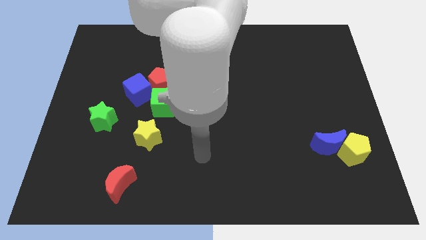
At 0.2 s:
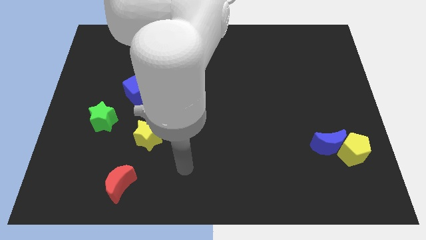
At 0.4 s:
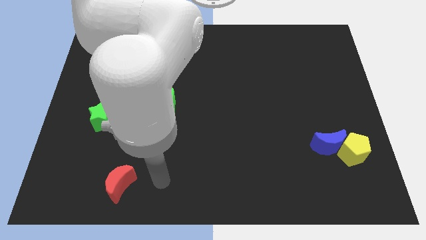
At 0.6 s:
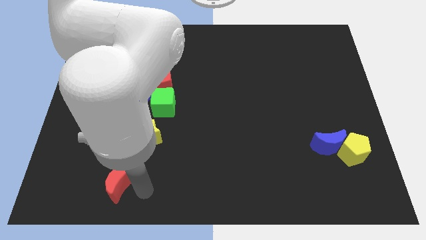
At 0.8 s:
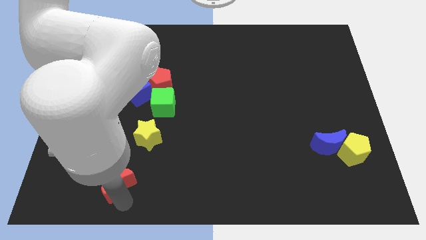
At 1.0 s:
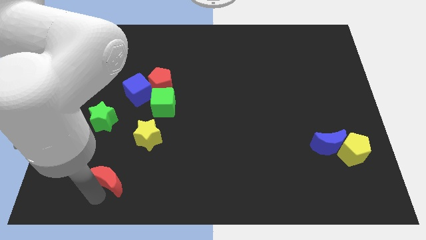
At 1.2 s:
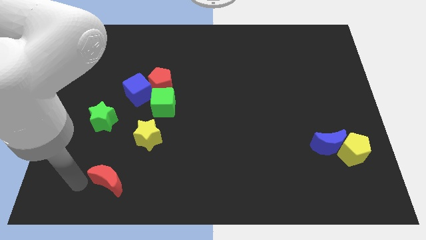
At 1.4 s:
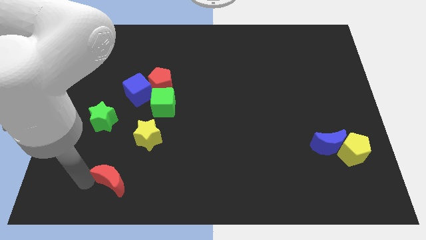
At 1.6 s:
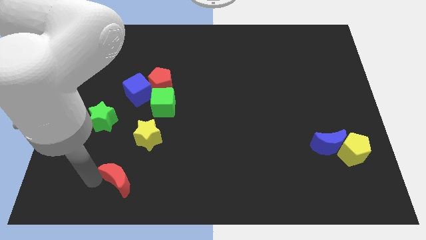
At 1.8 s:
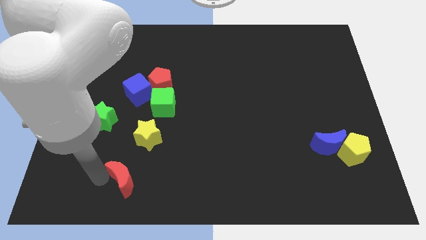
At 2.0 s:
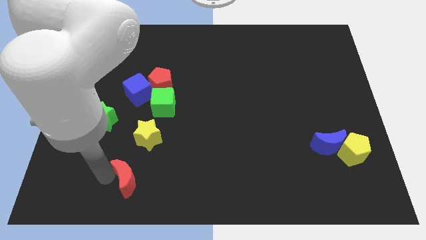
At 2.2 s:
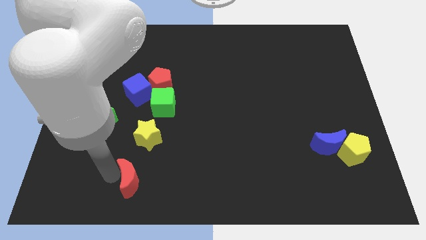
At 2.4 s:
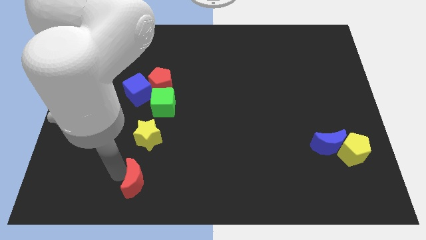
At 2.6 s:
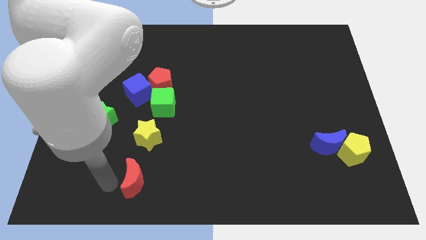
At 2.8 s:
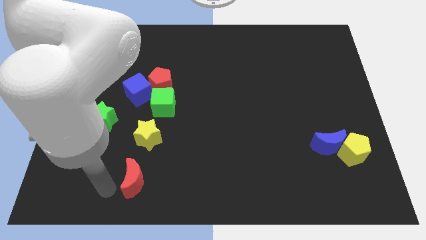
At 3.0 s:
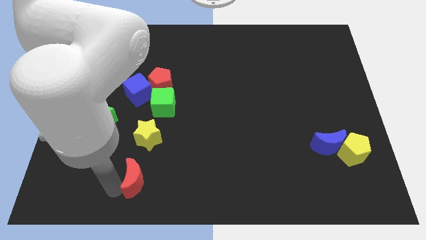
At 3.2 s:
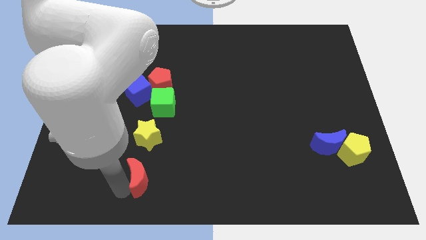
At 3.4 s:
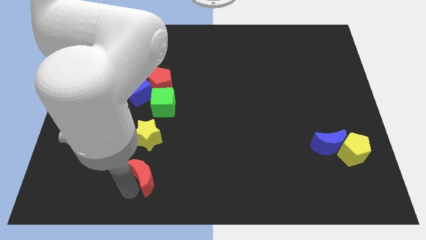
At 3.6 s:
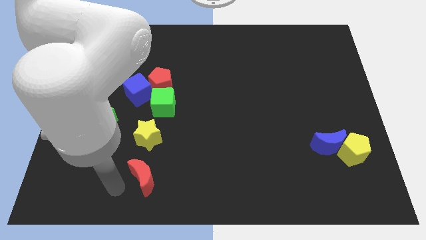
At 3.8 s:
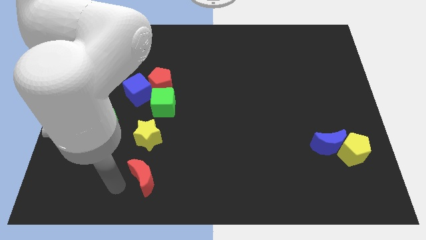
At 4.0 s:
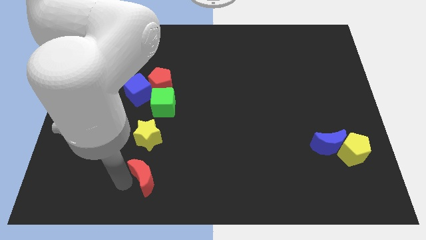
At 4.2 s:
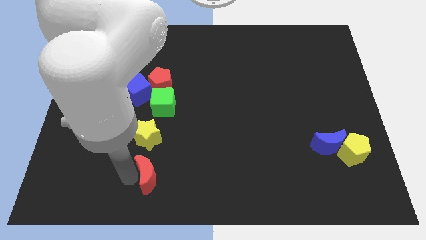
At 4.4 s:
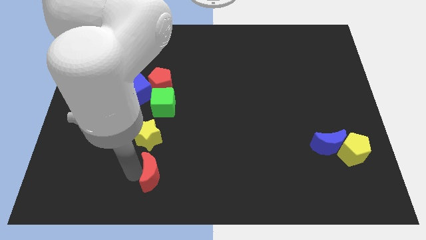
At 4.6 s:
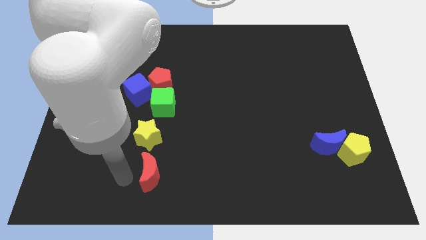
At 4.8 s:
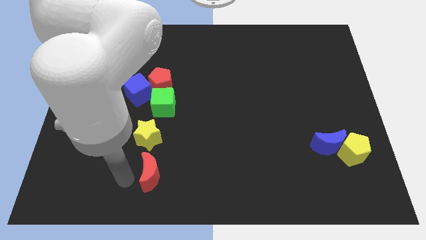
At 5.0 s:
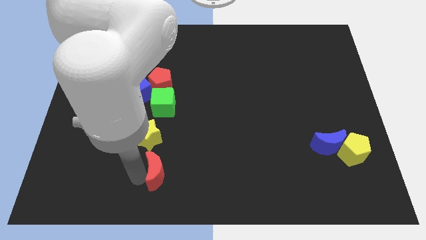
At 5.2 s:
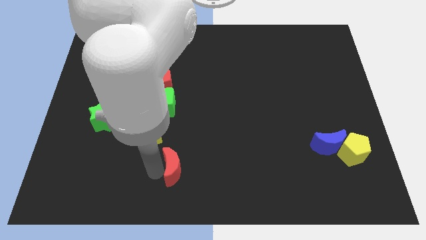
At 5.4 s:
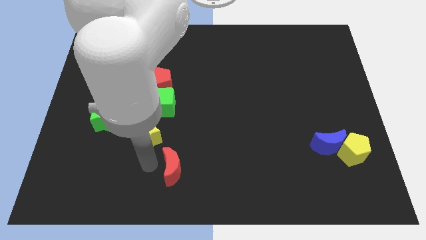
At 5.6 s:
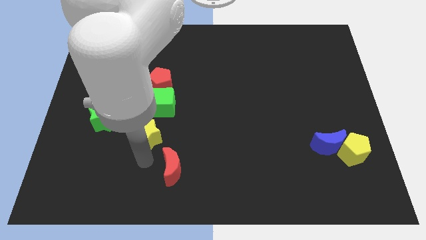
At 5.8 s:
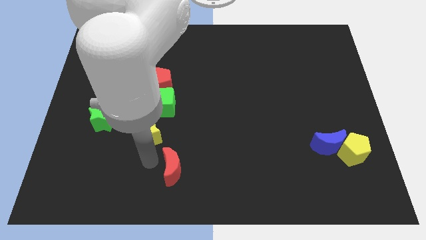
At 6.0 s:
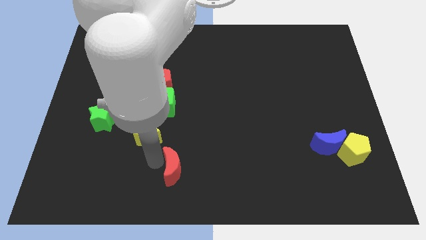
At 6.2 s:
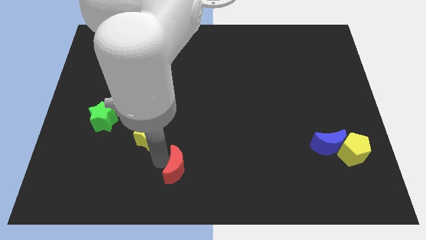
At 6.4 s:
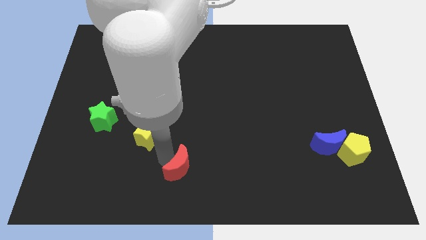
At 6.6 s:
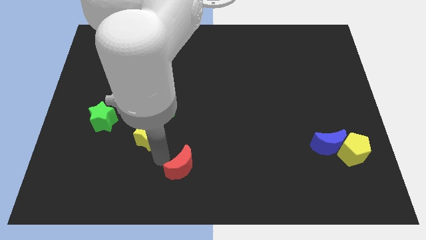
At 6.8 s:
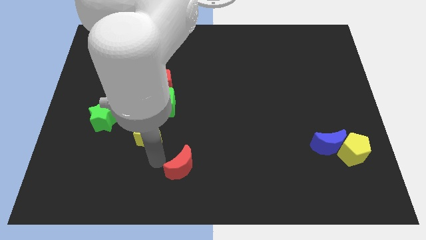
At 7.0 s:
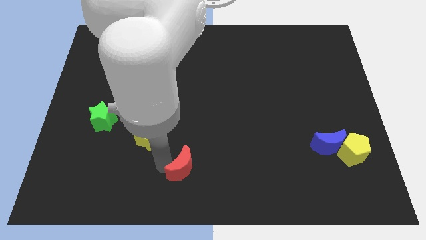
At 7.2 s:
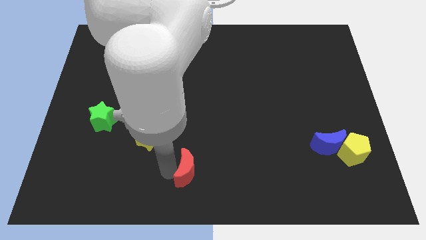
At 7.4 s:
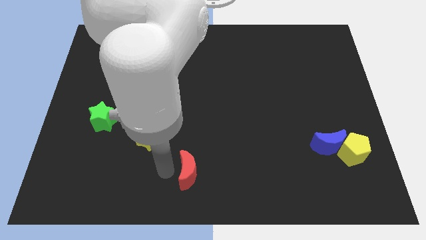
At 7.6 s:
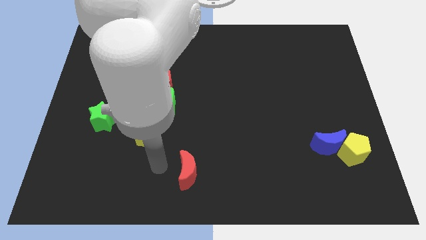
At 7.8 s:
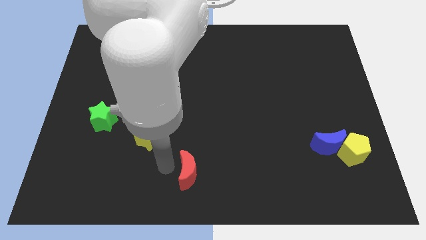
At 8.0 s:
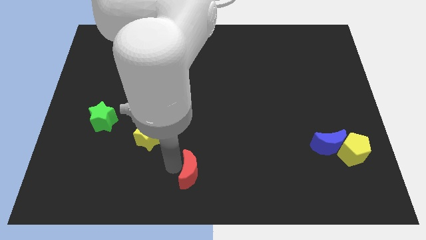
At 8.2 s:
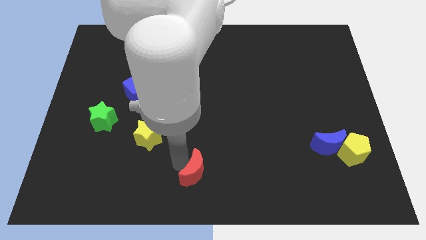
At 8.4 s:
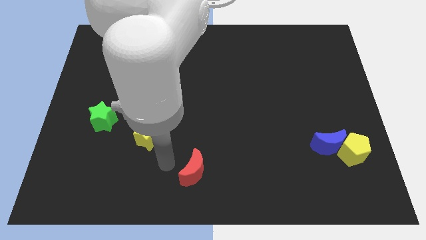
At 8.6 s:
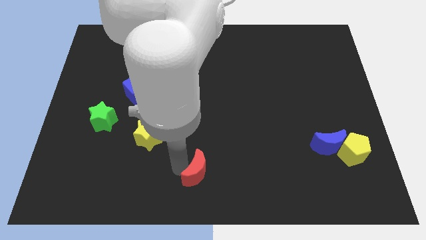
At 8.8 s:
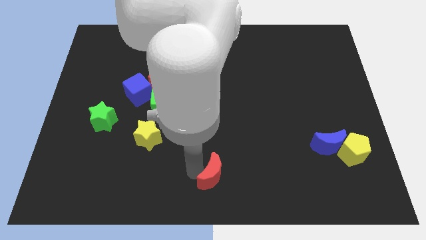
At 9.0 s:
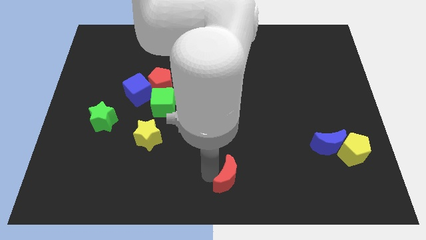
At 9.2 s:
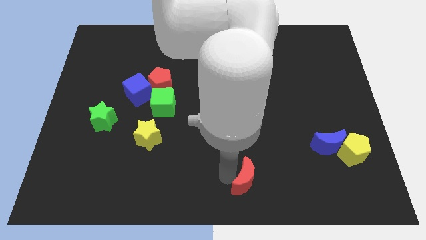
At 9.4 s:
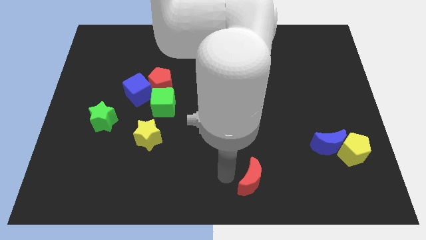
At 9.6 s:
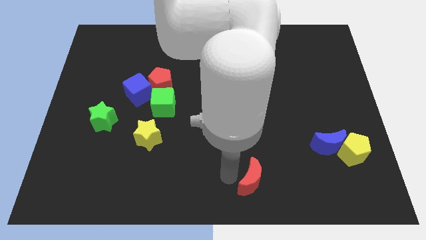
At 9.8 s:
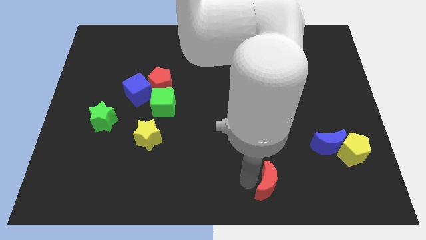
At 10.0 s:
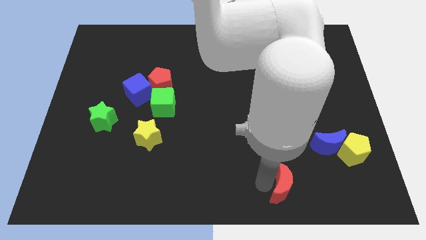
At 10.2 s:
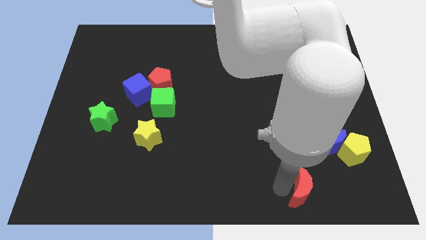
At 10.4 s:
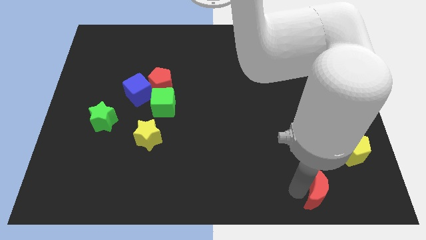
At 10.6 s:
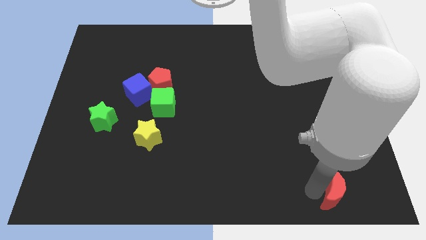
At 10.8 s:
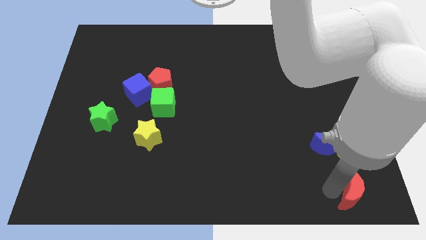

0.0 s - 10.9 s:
put the red moon to the bottom right corner

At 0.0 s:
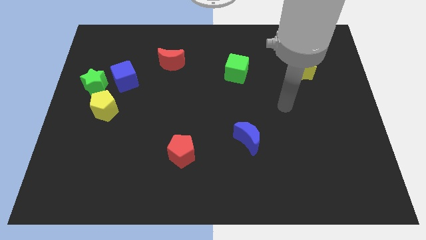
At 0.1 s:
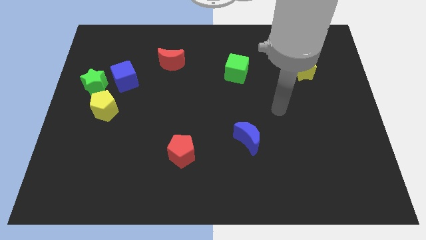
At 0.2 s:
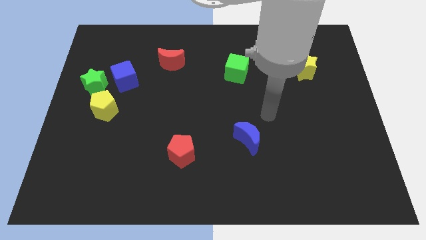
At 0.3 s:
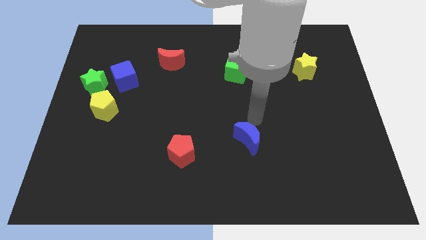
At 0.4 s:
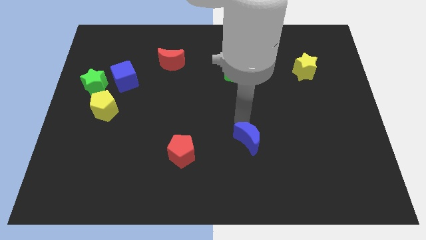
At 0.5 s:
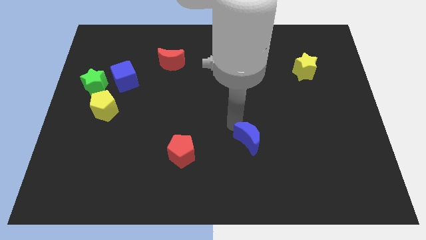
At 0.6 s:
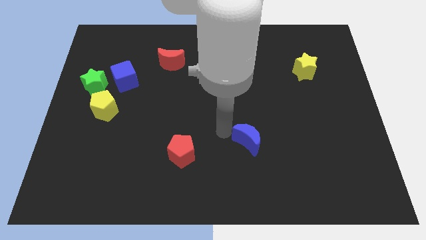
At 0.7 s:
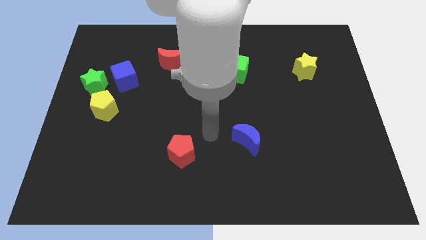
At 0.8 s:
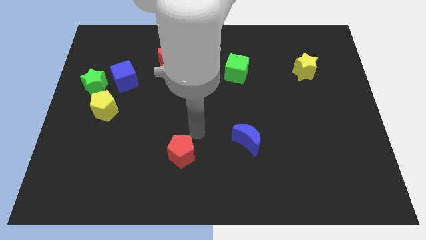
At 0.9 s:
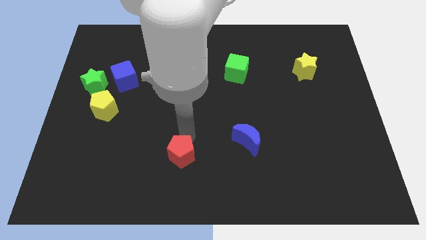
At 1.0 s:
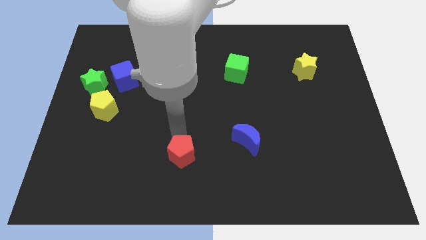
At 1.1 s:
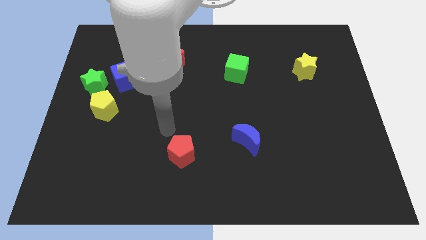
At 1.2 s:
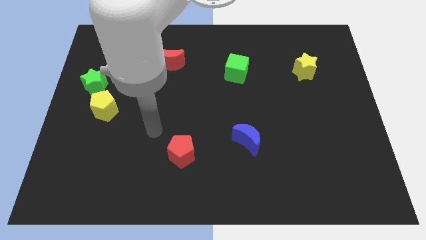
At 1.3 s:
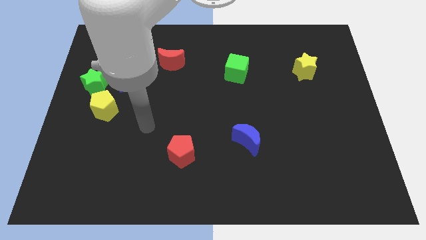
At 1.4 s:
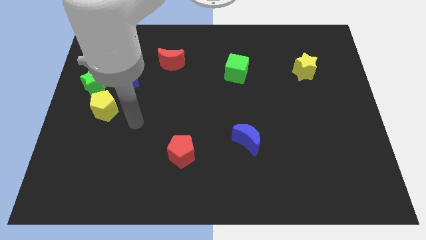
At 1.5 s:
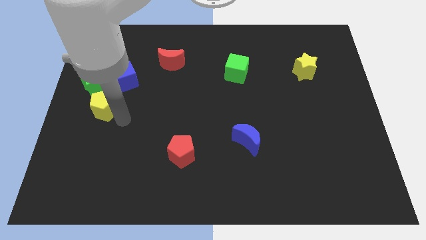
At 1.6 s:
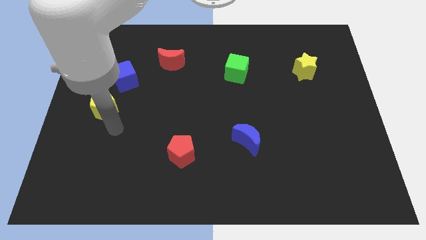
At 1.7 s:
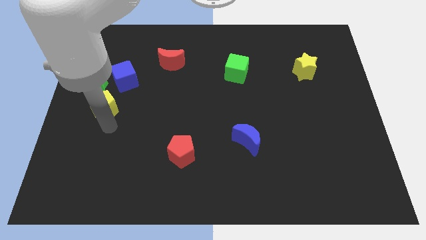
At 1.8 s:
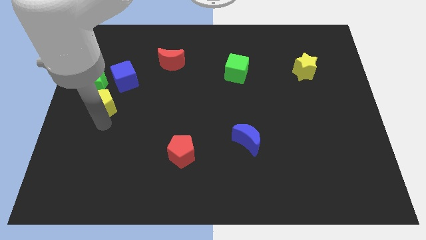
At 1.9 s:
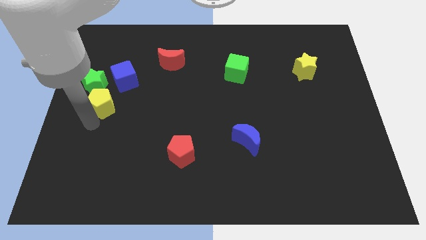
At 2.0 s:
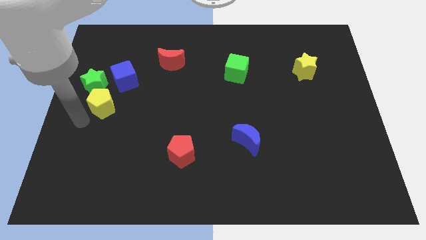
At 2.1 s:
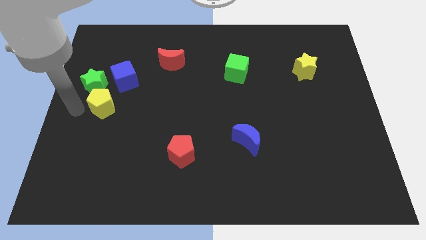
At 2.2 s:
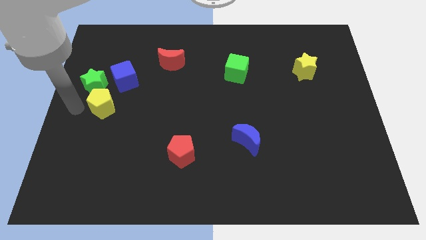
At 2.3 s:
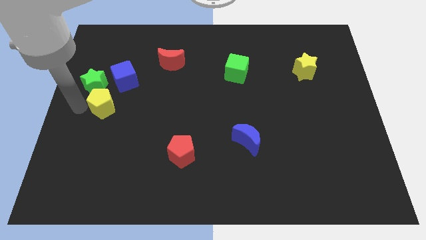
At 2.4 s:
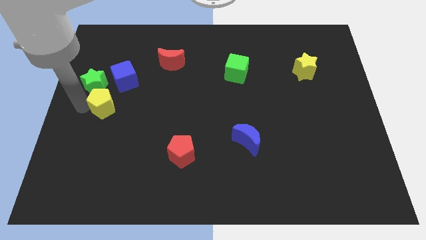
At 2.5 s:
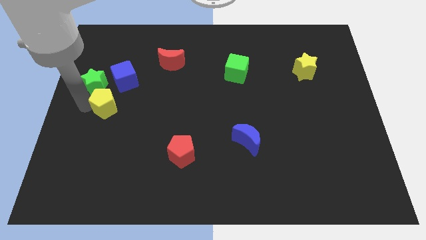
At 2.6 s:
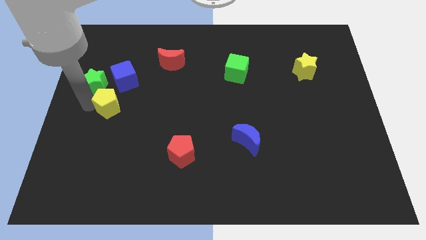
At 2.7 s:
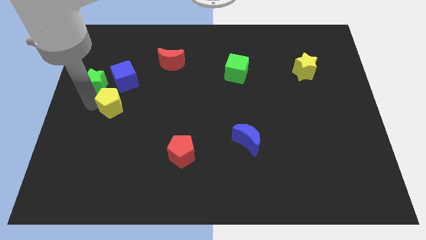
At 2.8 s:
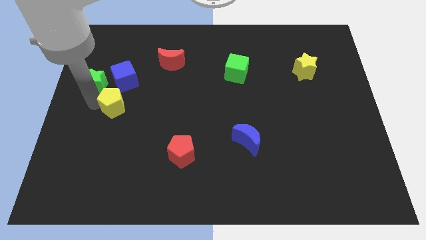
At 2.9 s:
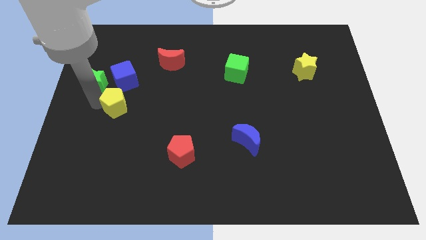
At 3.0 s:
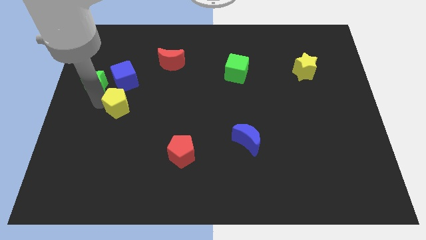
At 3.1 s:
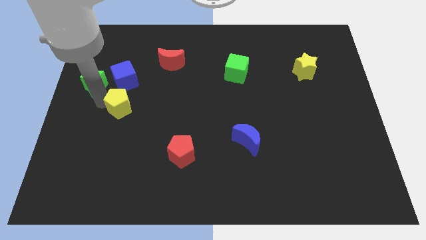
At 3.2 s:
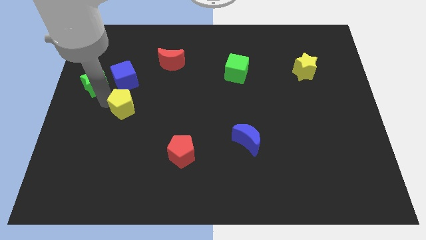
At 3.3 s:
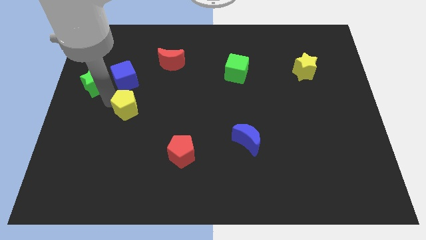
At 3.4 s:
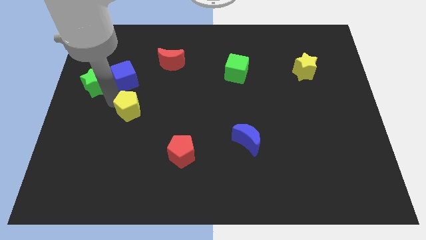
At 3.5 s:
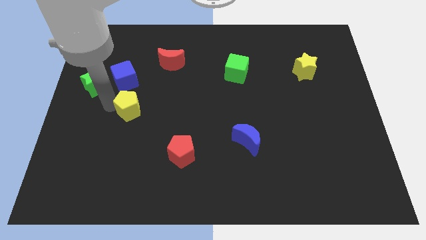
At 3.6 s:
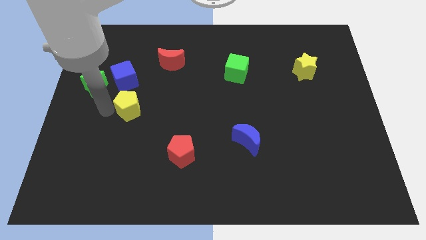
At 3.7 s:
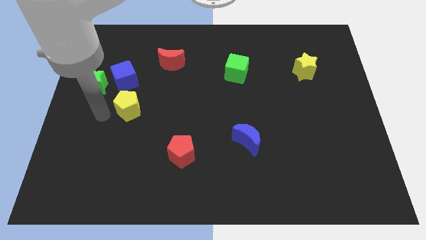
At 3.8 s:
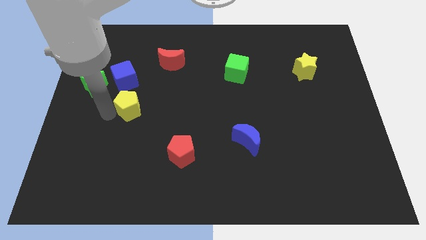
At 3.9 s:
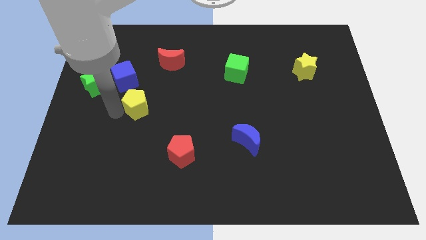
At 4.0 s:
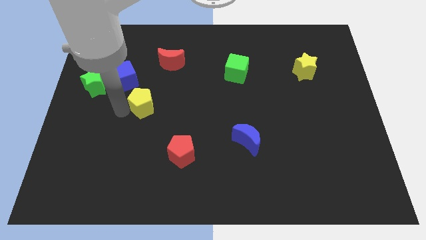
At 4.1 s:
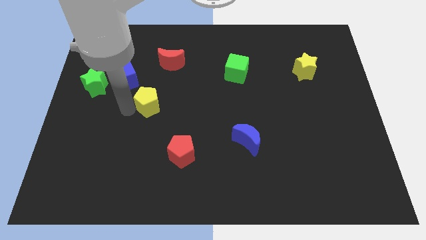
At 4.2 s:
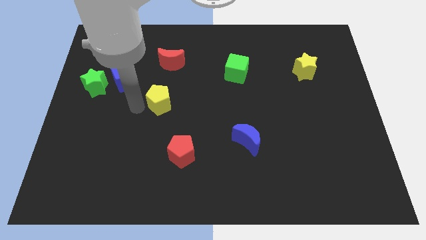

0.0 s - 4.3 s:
put the yellow pentagon to the middle of the board
